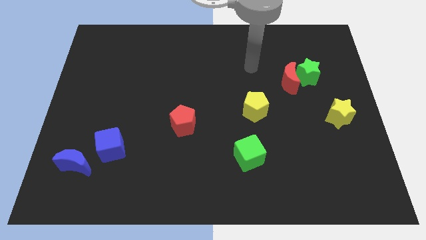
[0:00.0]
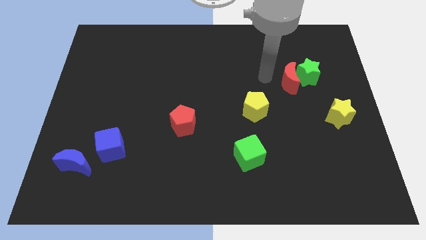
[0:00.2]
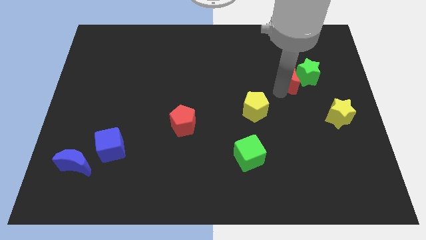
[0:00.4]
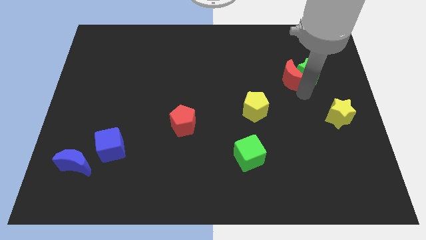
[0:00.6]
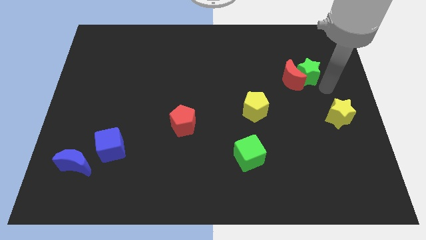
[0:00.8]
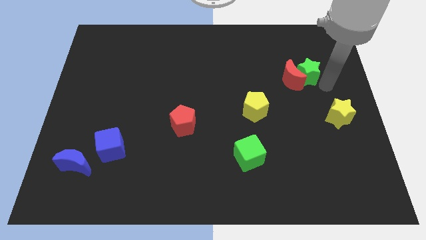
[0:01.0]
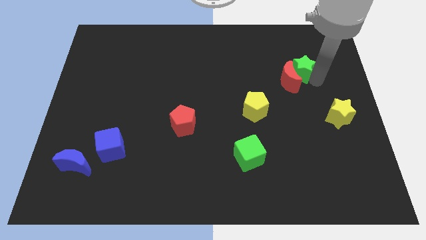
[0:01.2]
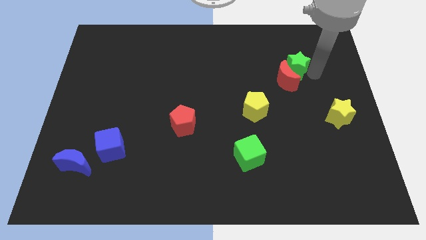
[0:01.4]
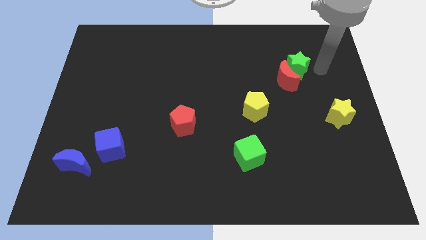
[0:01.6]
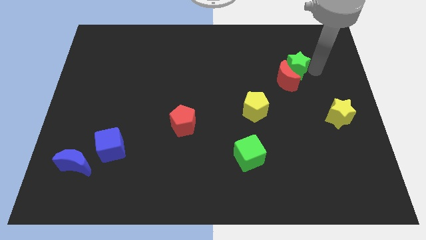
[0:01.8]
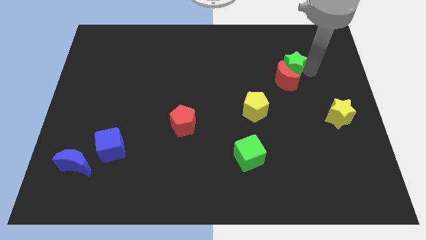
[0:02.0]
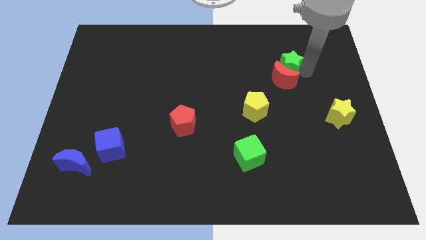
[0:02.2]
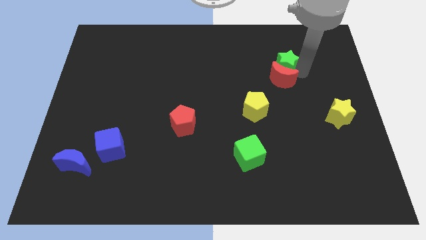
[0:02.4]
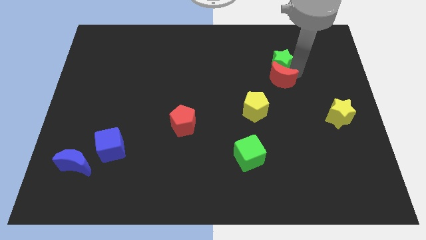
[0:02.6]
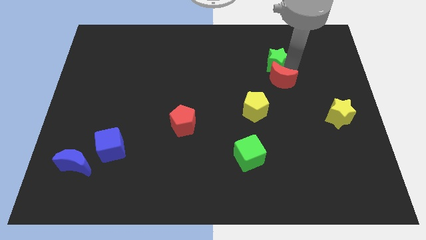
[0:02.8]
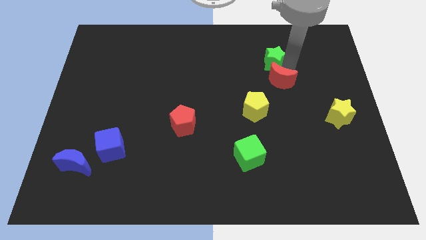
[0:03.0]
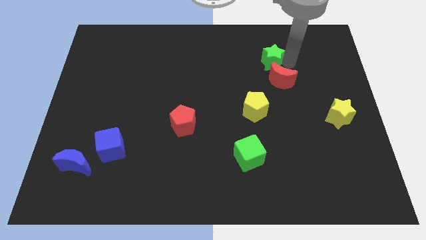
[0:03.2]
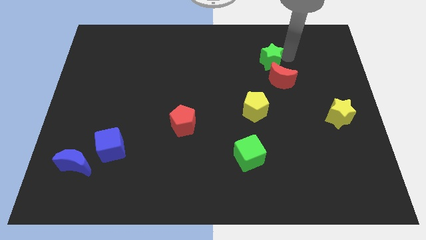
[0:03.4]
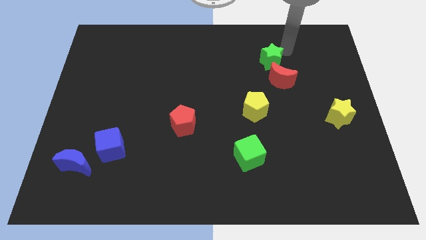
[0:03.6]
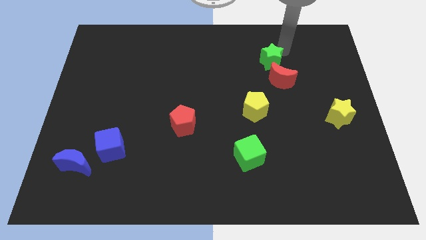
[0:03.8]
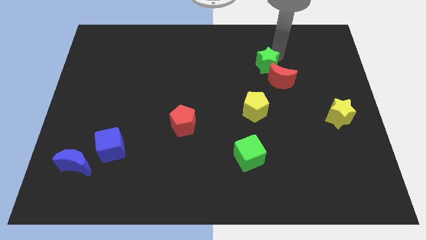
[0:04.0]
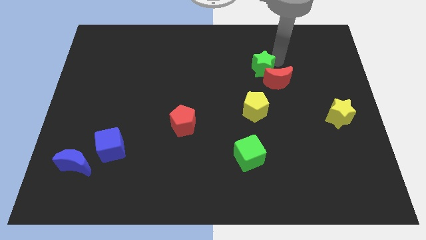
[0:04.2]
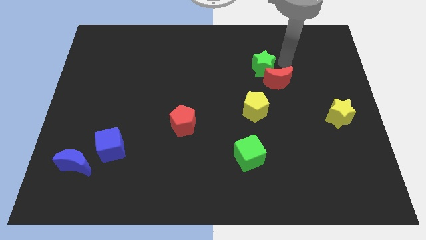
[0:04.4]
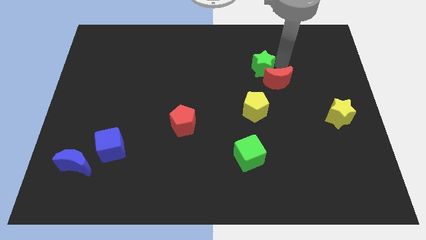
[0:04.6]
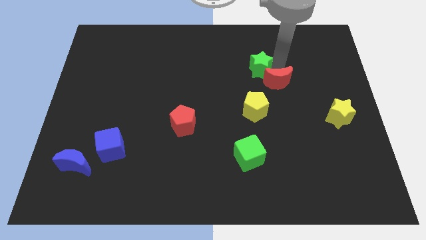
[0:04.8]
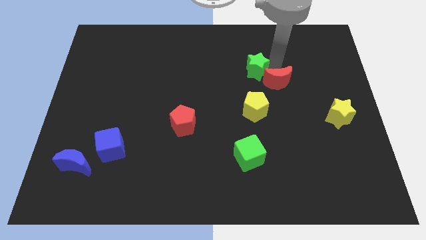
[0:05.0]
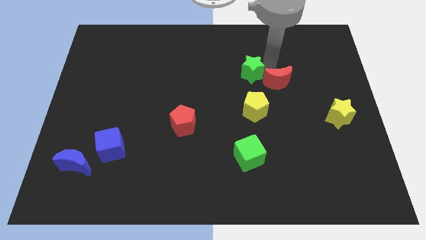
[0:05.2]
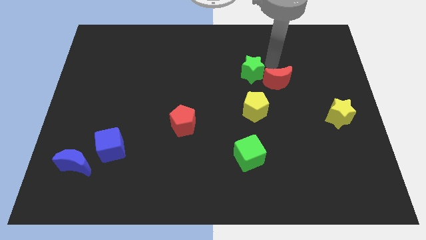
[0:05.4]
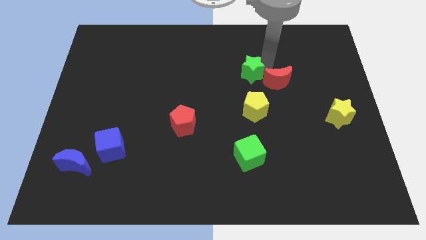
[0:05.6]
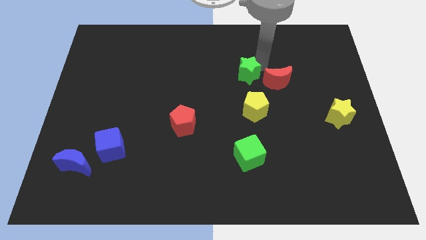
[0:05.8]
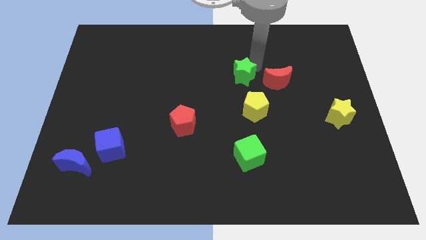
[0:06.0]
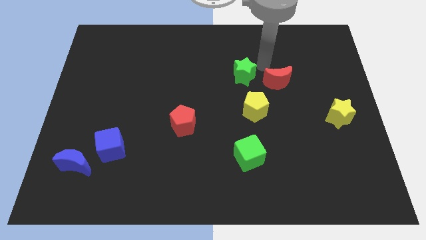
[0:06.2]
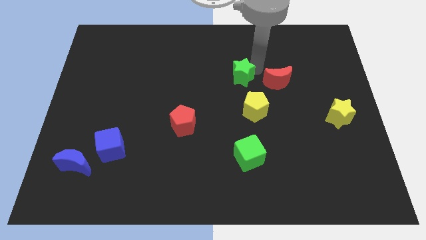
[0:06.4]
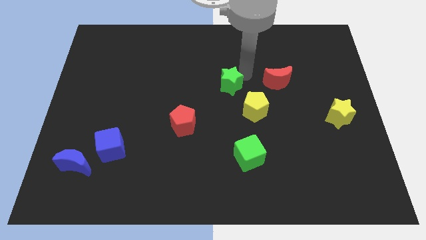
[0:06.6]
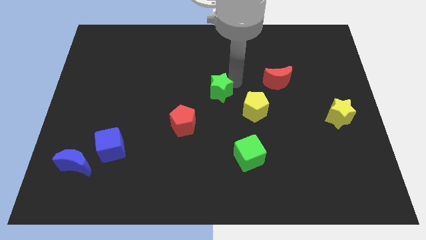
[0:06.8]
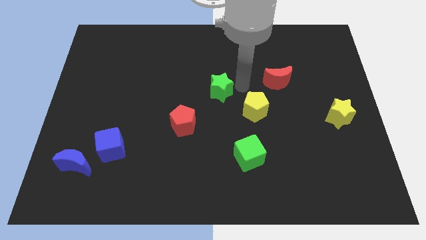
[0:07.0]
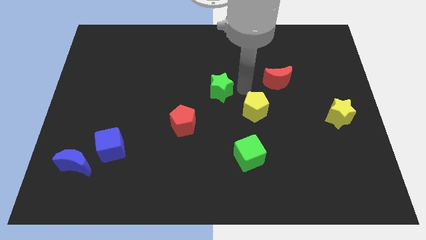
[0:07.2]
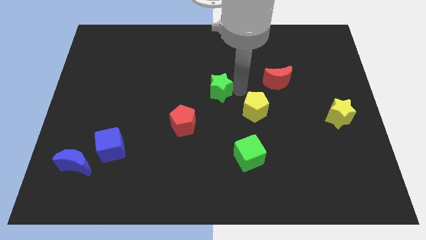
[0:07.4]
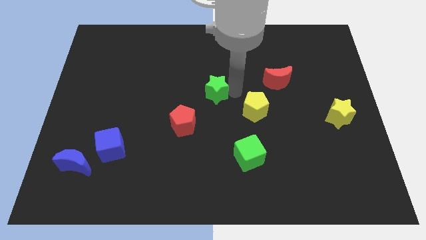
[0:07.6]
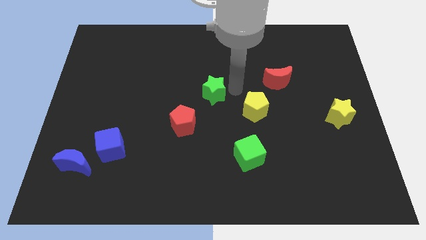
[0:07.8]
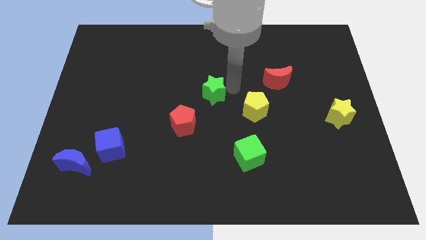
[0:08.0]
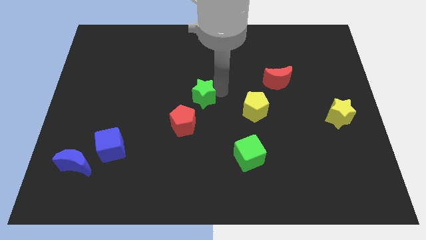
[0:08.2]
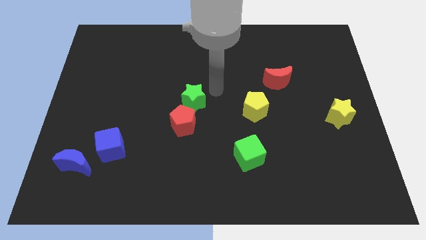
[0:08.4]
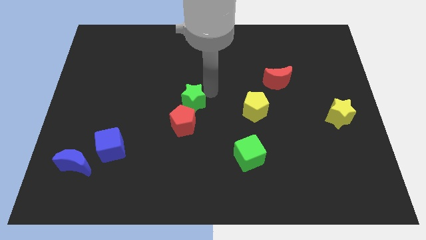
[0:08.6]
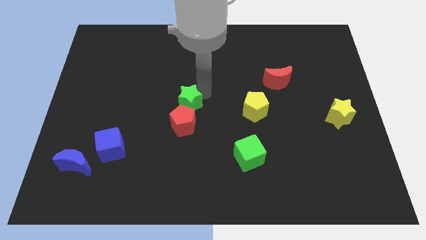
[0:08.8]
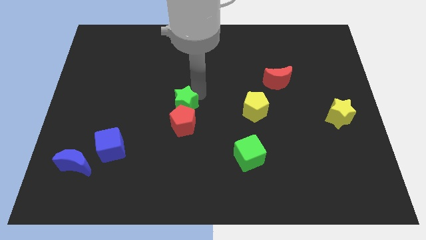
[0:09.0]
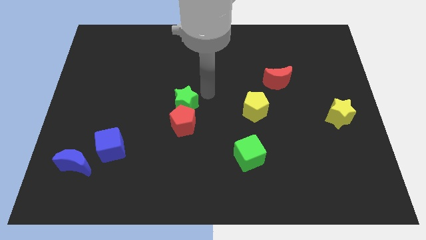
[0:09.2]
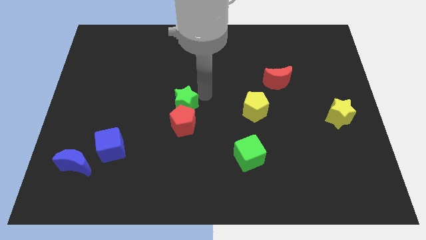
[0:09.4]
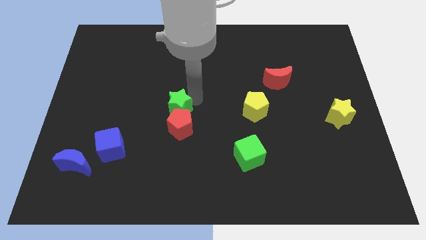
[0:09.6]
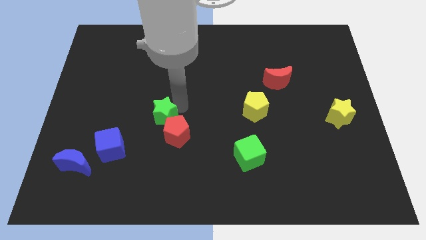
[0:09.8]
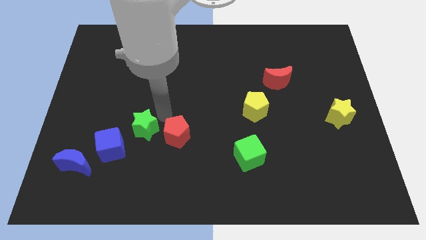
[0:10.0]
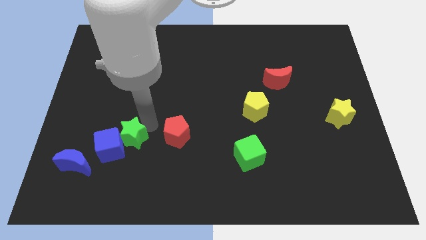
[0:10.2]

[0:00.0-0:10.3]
put the green star to the blue cube

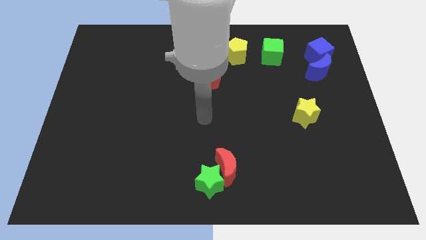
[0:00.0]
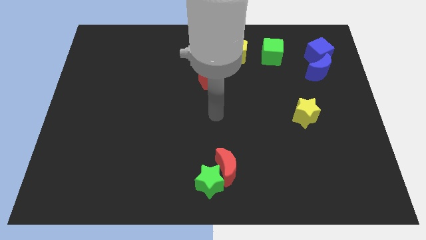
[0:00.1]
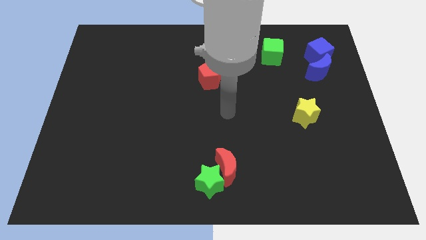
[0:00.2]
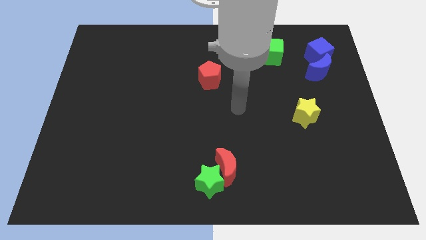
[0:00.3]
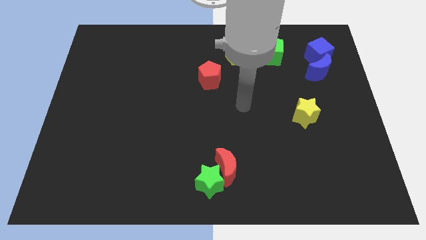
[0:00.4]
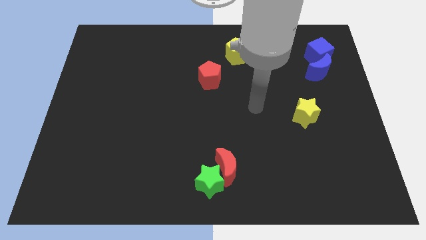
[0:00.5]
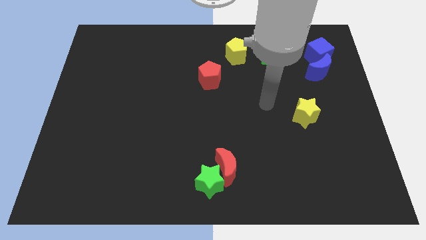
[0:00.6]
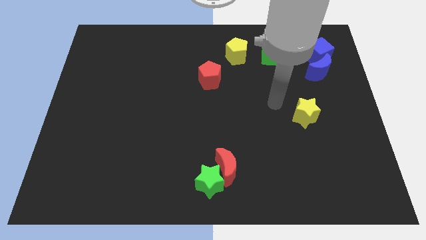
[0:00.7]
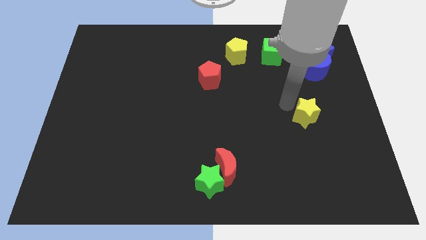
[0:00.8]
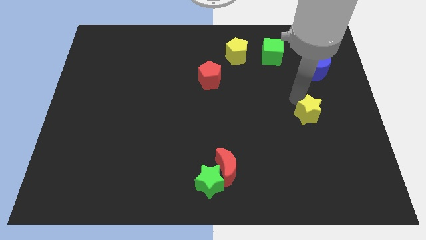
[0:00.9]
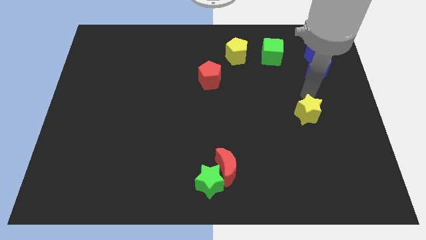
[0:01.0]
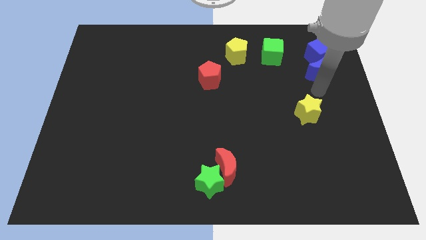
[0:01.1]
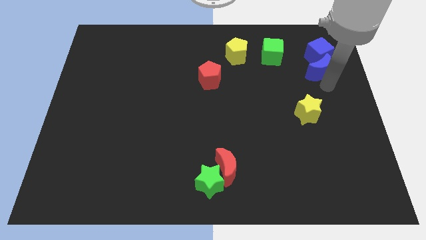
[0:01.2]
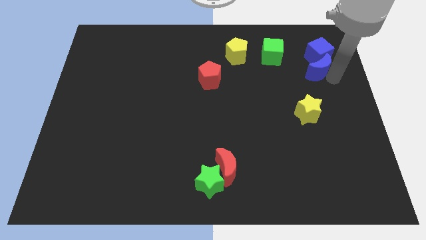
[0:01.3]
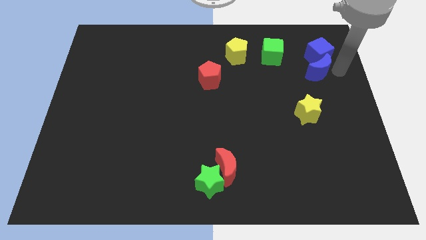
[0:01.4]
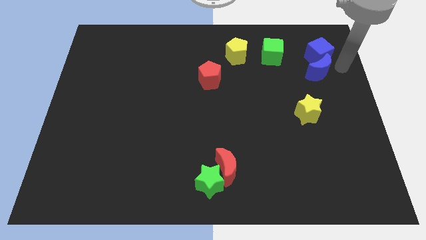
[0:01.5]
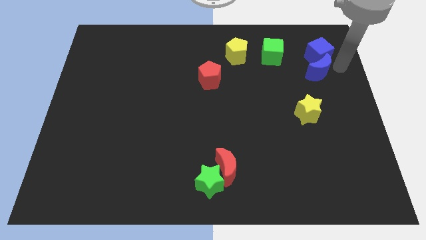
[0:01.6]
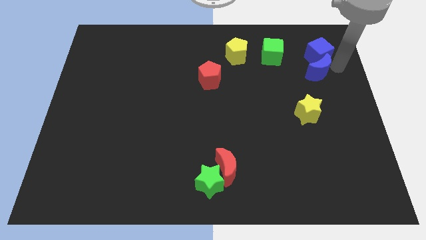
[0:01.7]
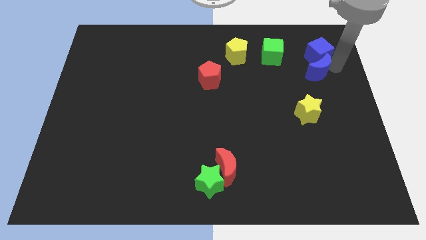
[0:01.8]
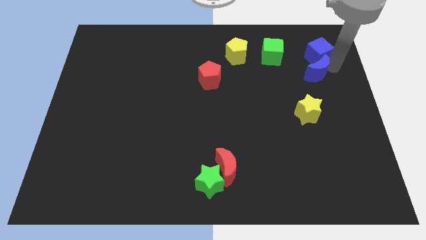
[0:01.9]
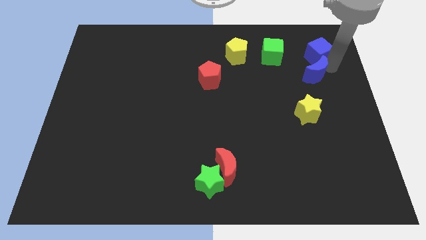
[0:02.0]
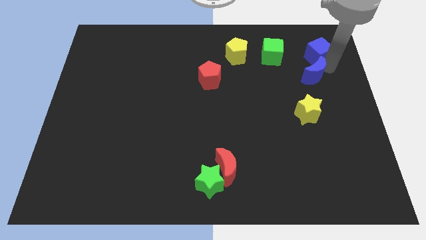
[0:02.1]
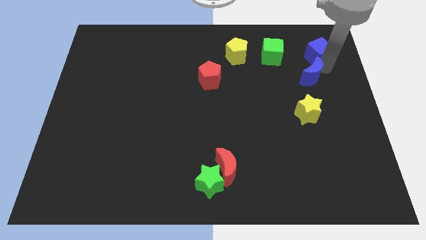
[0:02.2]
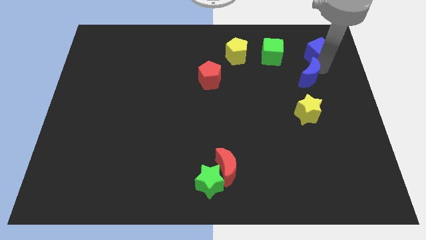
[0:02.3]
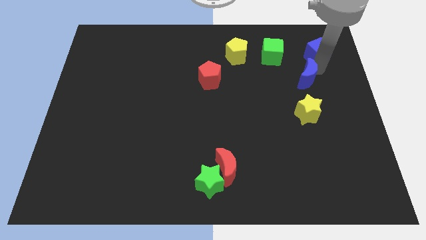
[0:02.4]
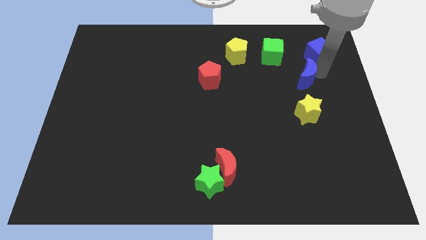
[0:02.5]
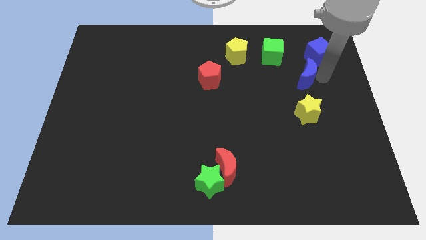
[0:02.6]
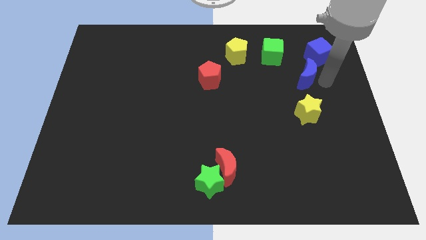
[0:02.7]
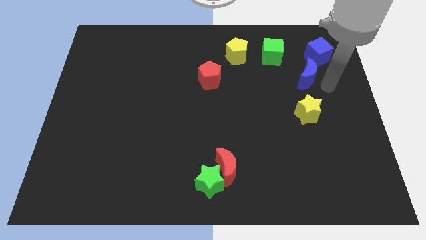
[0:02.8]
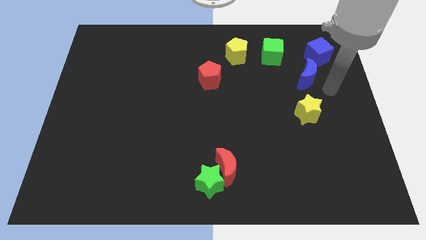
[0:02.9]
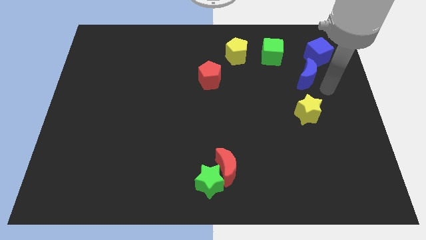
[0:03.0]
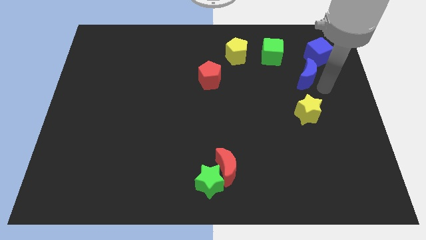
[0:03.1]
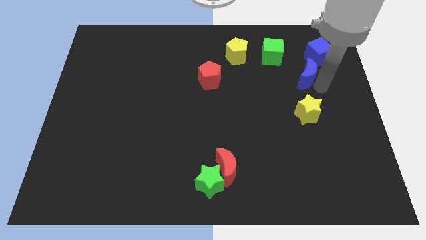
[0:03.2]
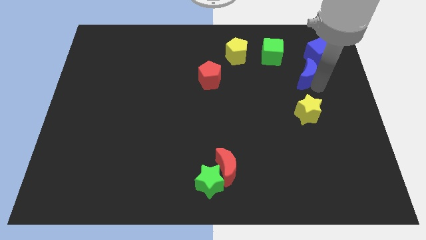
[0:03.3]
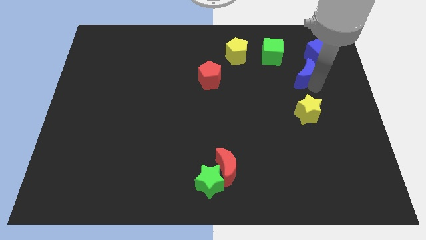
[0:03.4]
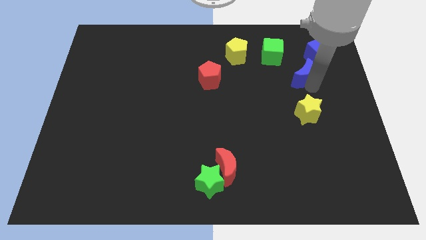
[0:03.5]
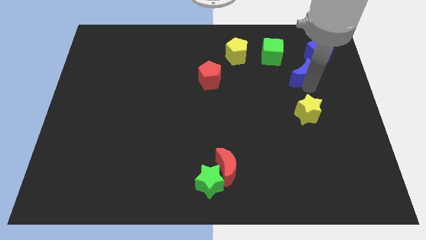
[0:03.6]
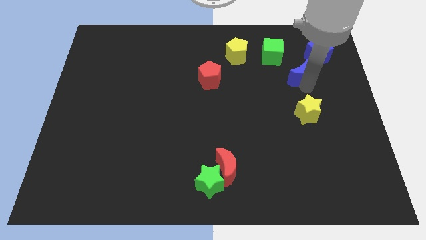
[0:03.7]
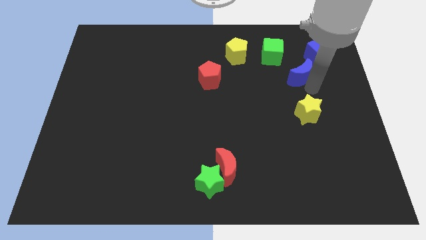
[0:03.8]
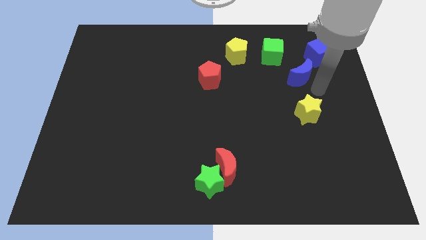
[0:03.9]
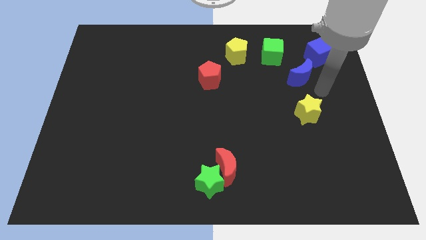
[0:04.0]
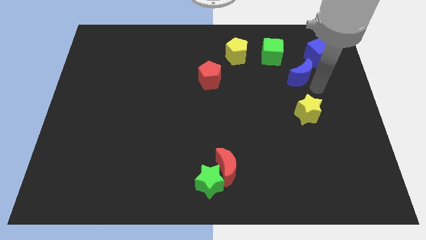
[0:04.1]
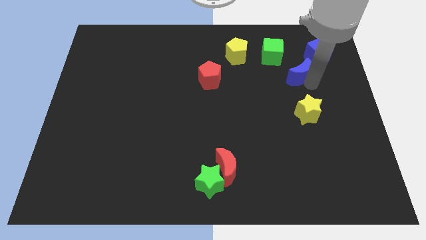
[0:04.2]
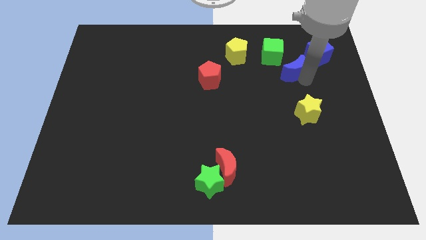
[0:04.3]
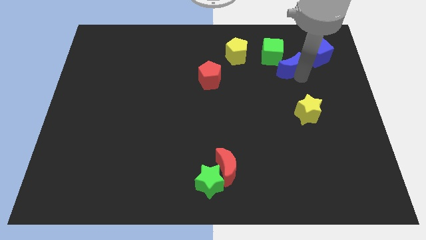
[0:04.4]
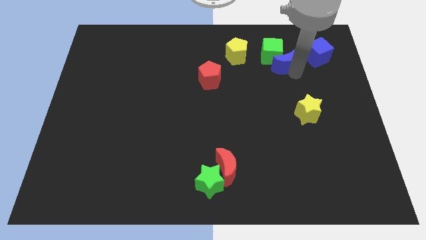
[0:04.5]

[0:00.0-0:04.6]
put the blue moon towards the green cube
